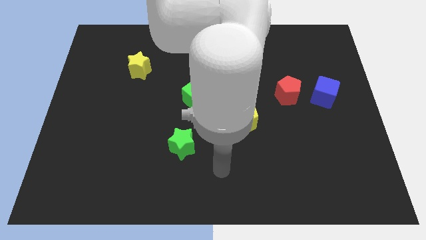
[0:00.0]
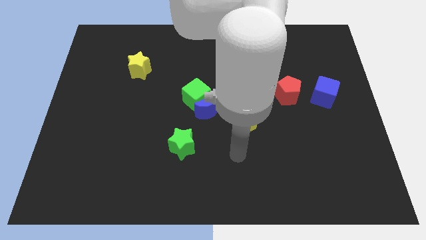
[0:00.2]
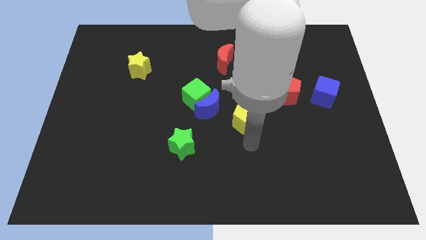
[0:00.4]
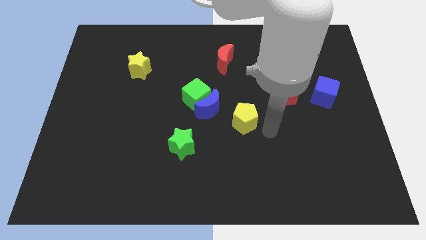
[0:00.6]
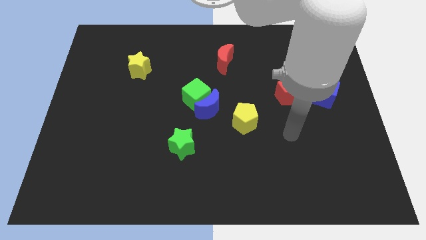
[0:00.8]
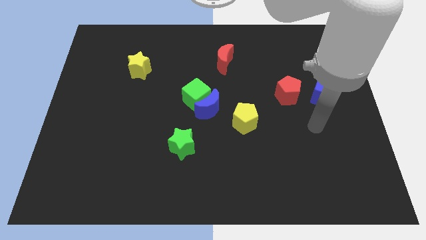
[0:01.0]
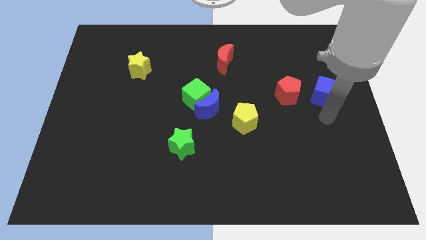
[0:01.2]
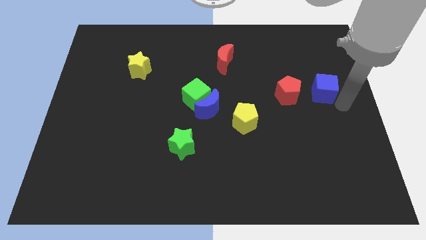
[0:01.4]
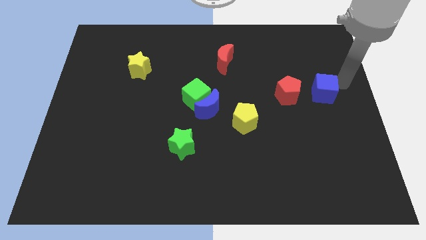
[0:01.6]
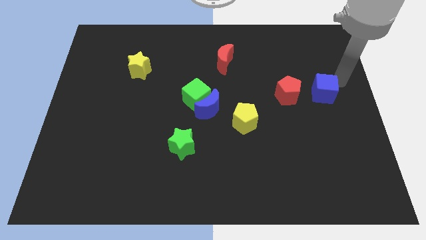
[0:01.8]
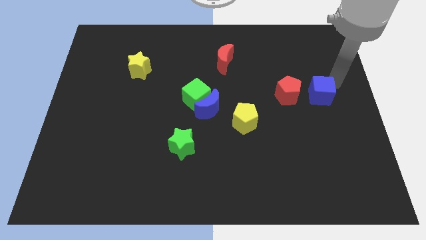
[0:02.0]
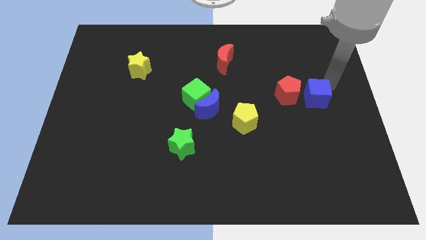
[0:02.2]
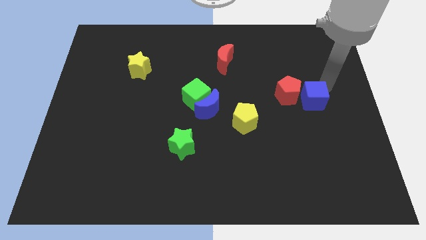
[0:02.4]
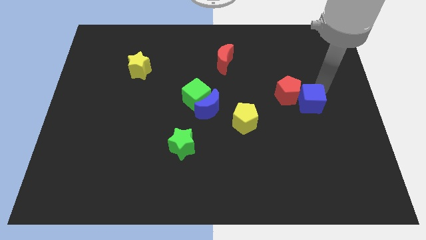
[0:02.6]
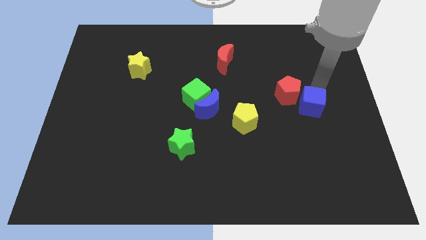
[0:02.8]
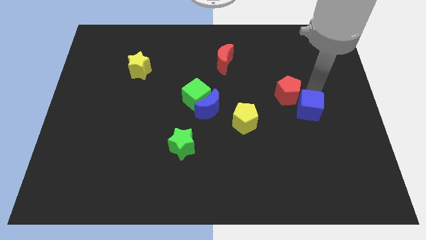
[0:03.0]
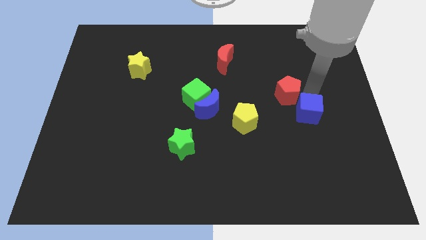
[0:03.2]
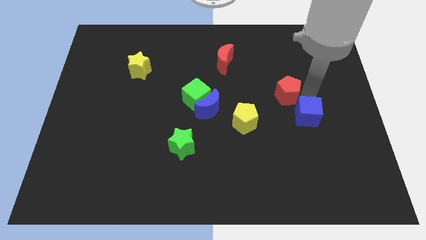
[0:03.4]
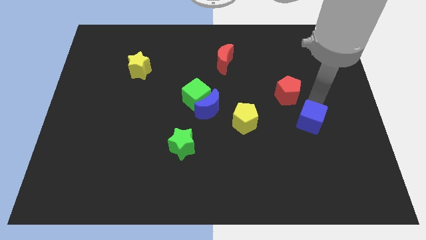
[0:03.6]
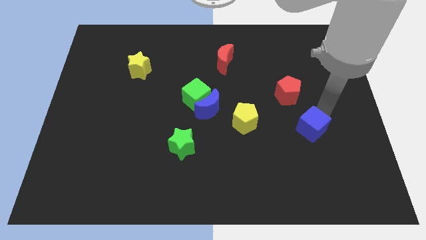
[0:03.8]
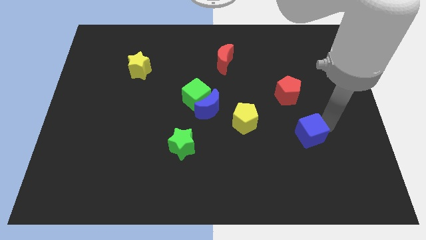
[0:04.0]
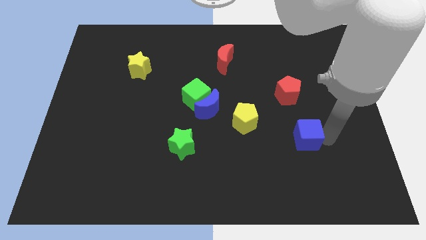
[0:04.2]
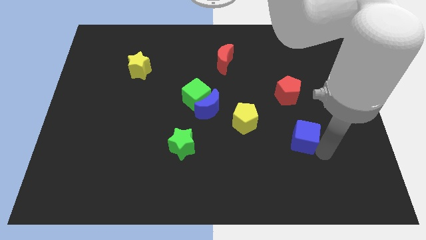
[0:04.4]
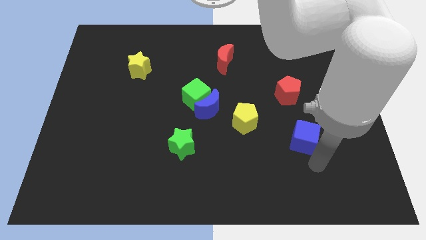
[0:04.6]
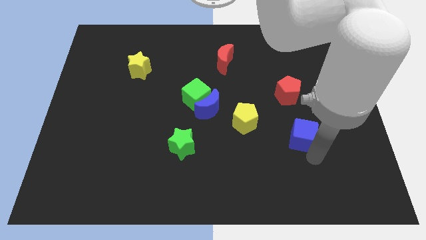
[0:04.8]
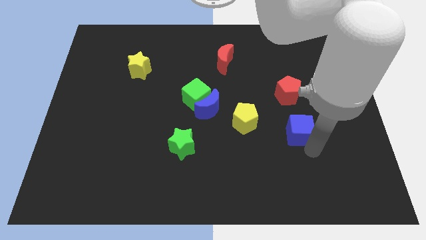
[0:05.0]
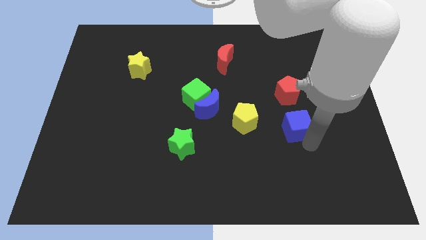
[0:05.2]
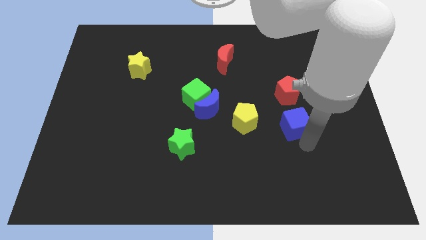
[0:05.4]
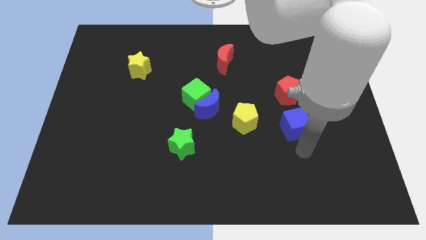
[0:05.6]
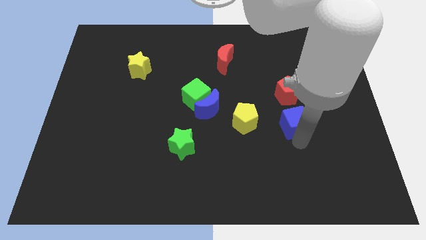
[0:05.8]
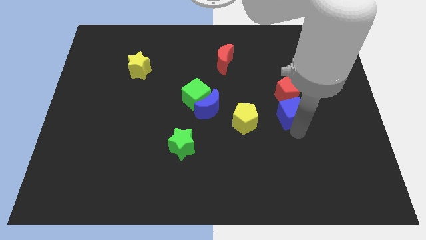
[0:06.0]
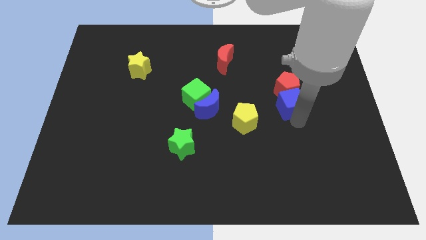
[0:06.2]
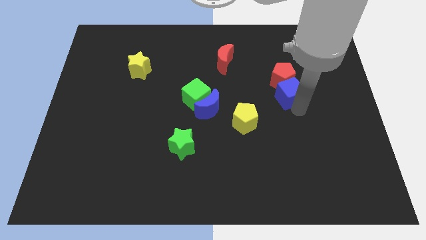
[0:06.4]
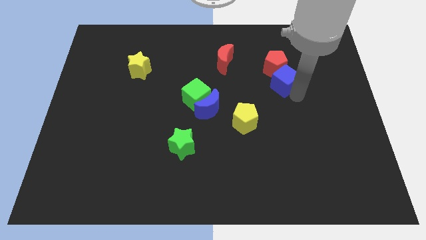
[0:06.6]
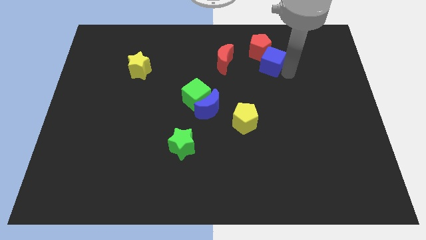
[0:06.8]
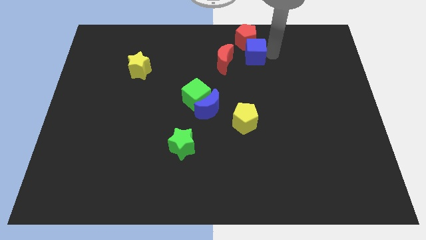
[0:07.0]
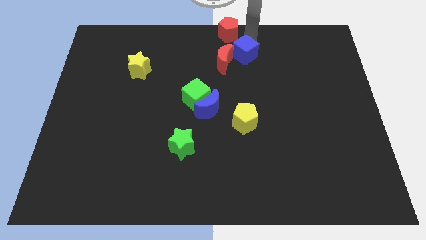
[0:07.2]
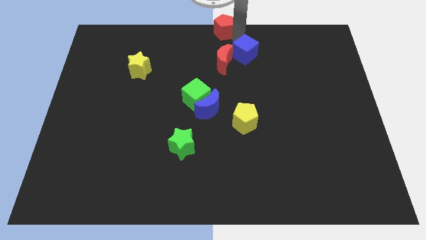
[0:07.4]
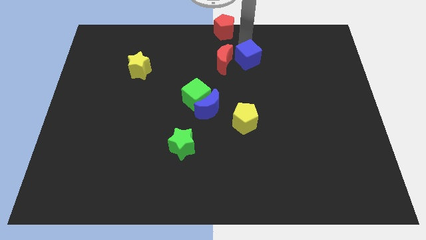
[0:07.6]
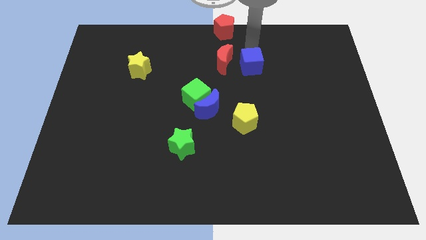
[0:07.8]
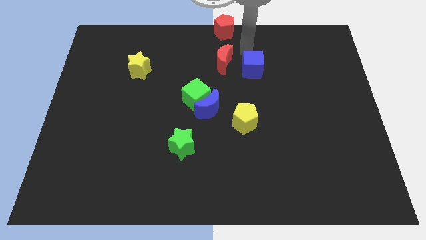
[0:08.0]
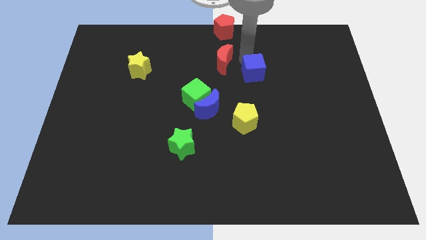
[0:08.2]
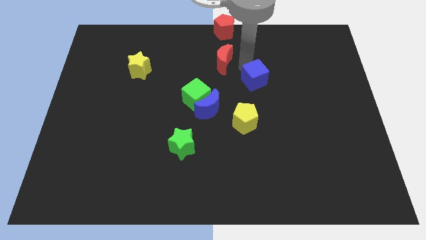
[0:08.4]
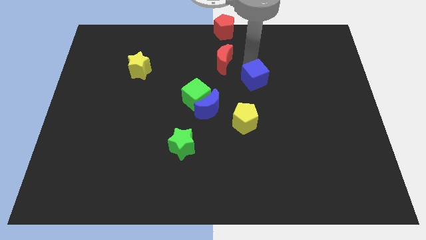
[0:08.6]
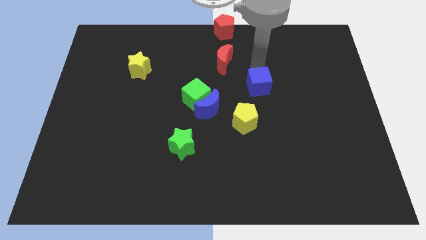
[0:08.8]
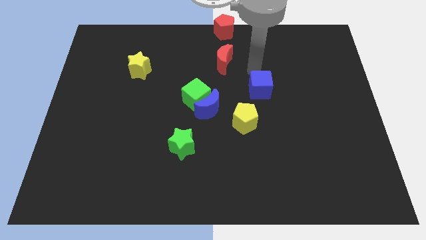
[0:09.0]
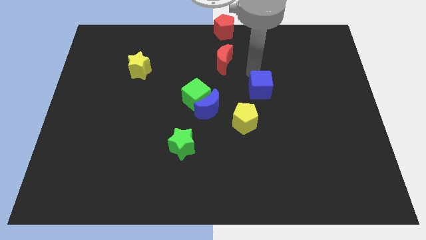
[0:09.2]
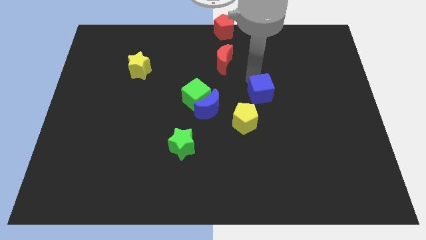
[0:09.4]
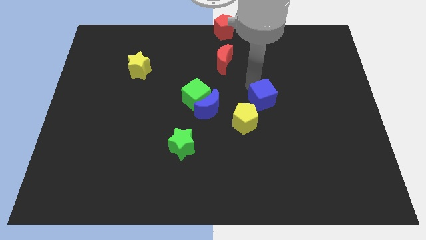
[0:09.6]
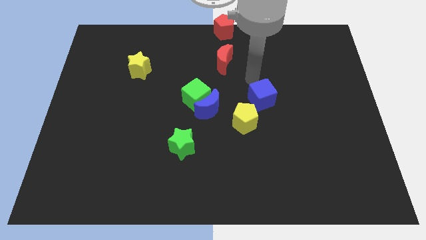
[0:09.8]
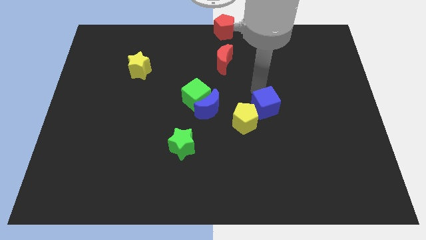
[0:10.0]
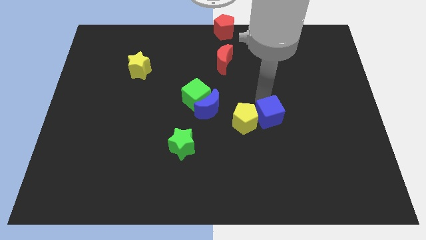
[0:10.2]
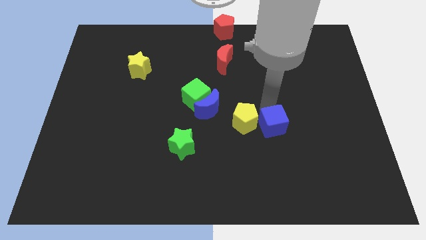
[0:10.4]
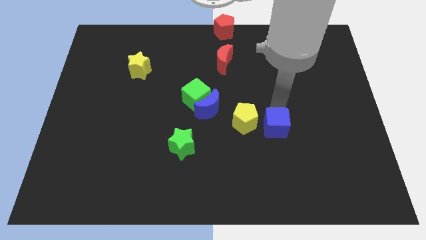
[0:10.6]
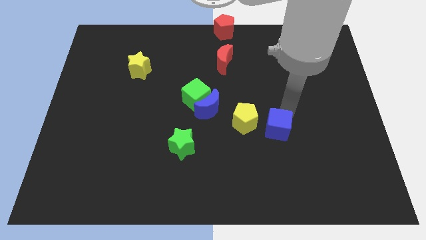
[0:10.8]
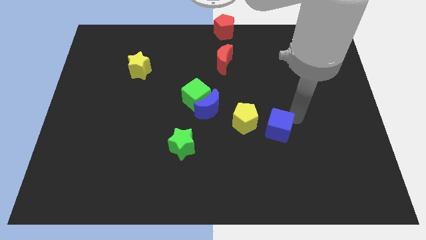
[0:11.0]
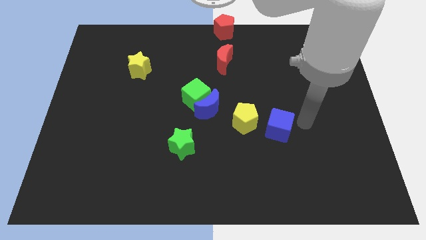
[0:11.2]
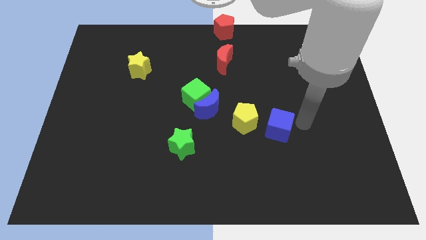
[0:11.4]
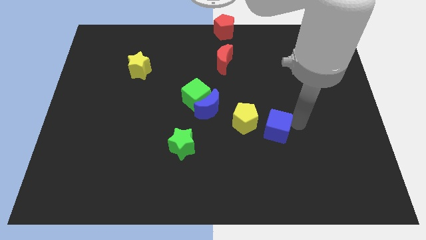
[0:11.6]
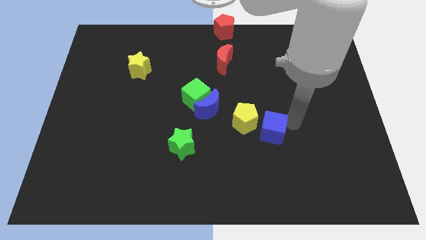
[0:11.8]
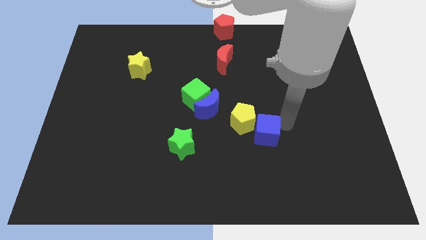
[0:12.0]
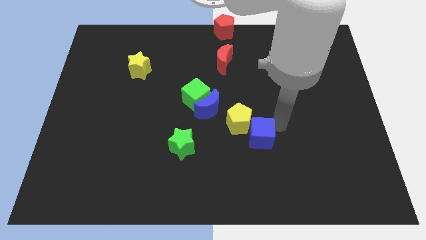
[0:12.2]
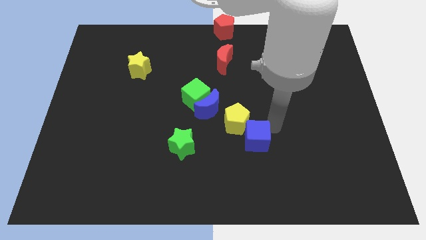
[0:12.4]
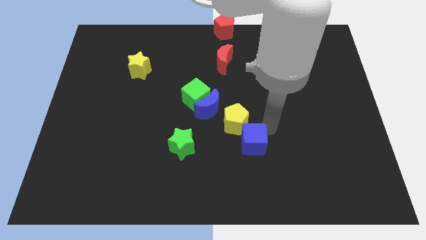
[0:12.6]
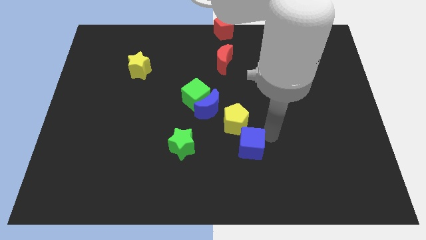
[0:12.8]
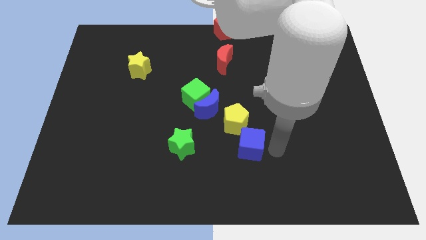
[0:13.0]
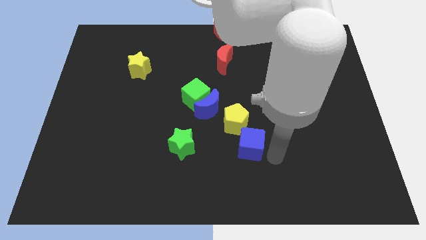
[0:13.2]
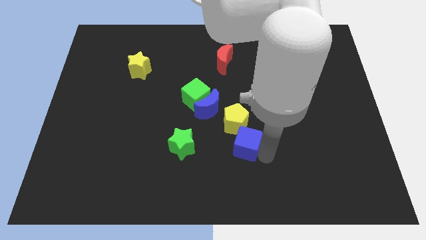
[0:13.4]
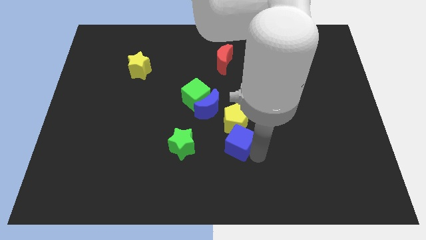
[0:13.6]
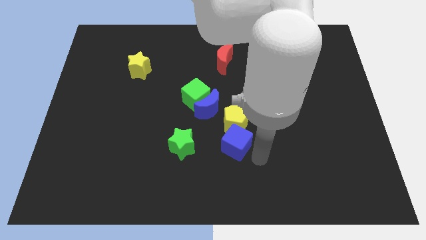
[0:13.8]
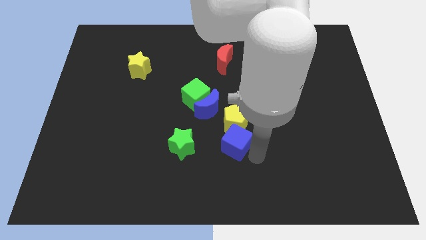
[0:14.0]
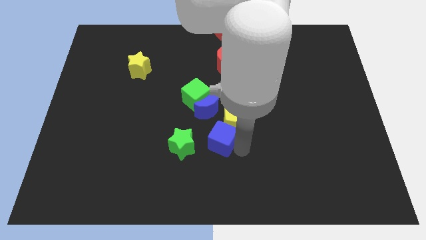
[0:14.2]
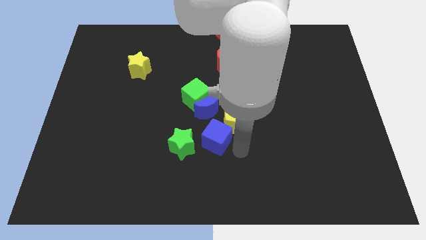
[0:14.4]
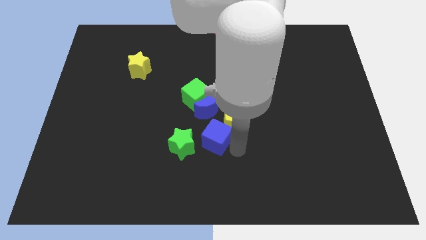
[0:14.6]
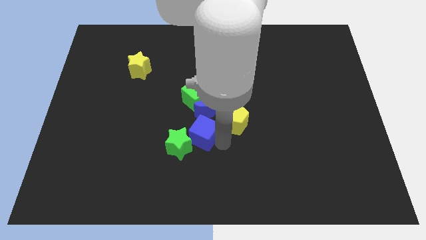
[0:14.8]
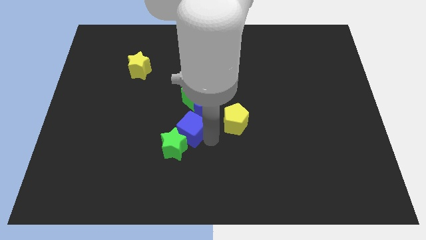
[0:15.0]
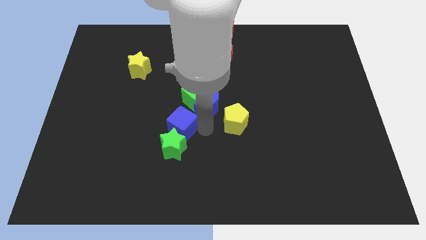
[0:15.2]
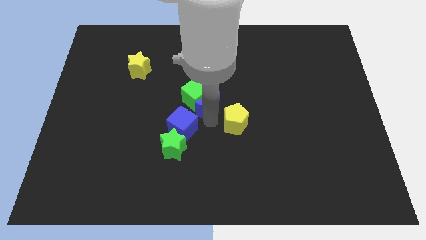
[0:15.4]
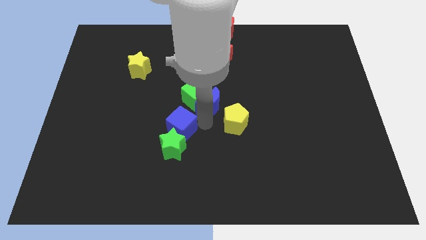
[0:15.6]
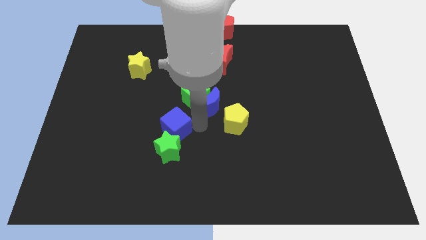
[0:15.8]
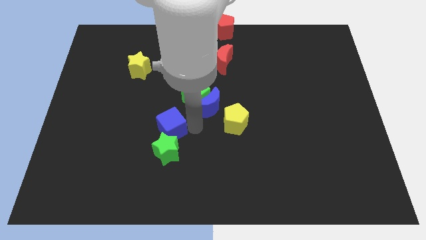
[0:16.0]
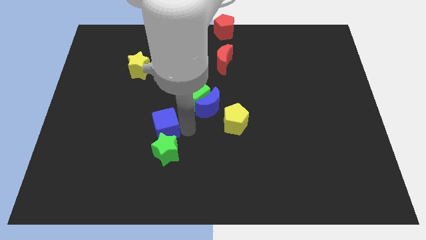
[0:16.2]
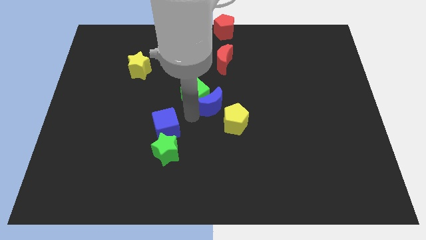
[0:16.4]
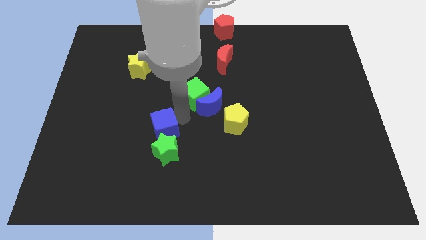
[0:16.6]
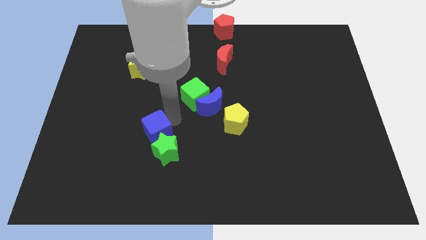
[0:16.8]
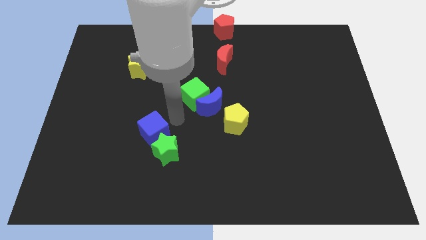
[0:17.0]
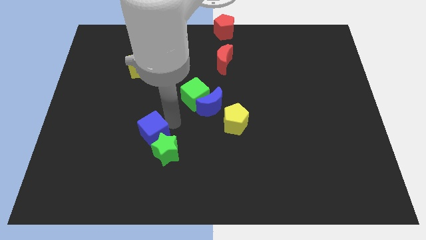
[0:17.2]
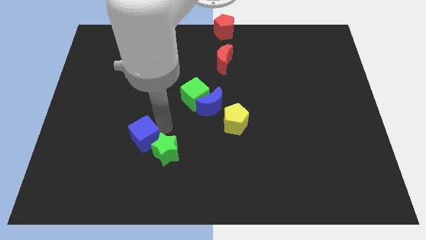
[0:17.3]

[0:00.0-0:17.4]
push the blue cube just left of the green star
